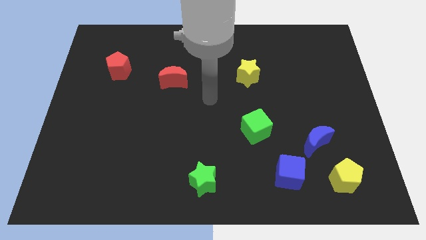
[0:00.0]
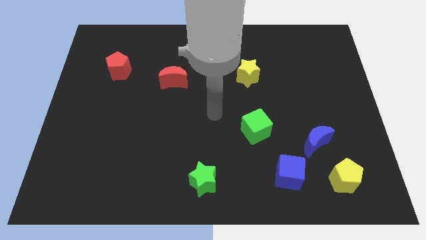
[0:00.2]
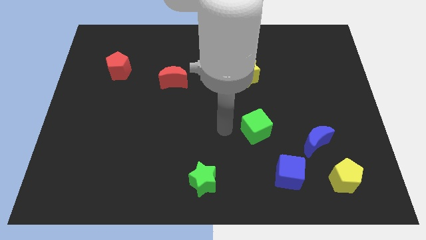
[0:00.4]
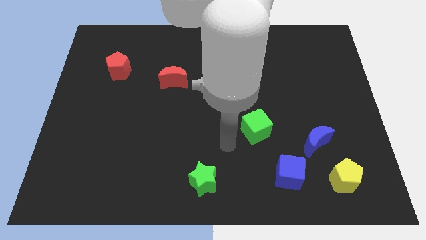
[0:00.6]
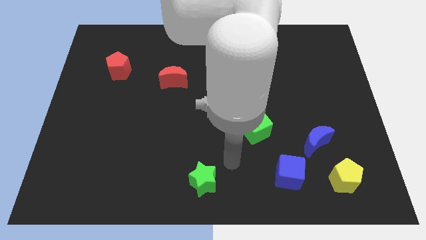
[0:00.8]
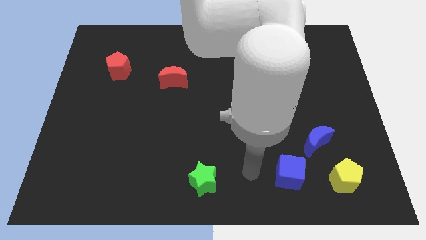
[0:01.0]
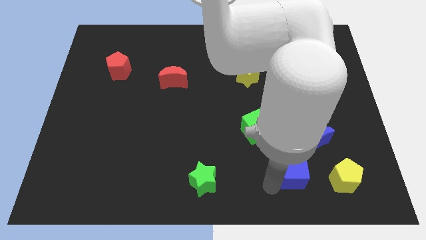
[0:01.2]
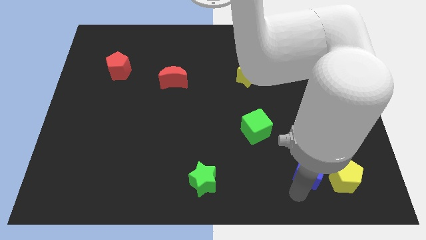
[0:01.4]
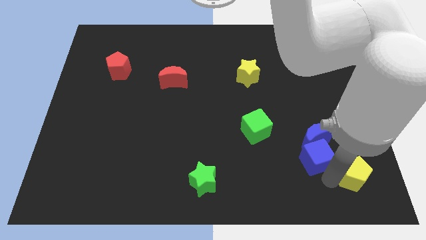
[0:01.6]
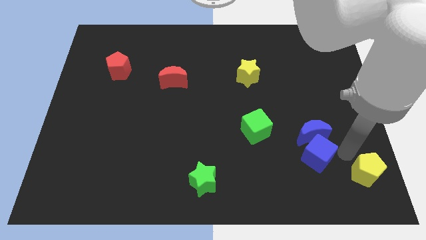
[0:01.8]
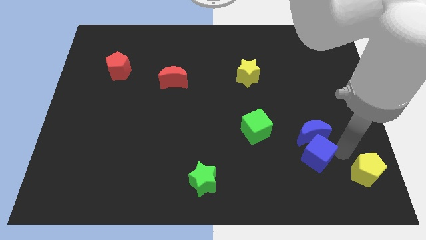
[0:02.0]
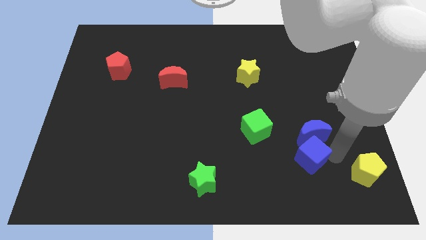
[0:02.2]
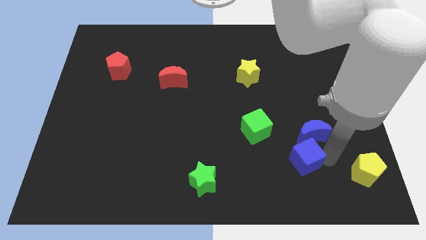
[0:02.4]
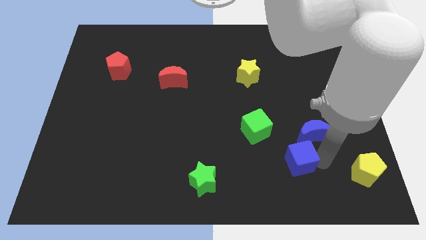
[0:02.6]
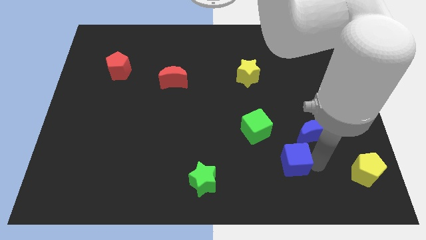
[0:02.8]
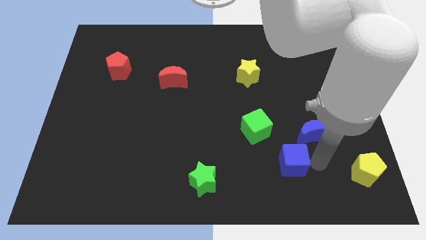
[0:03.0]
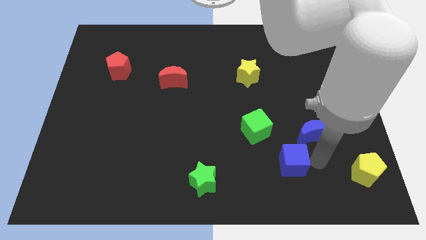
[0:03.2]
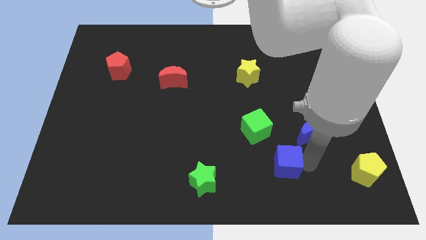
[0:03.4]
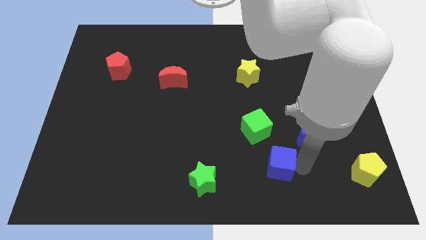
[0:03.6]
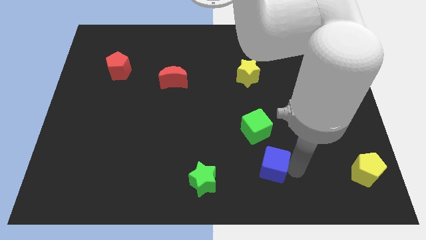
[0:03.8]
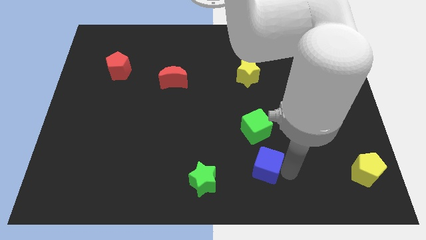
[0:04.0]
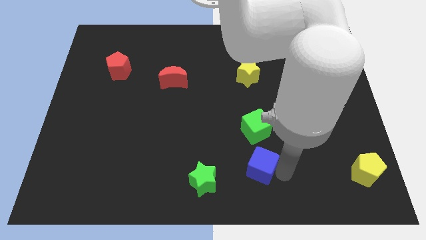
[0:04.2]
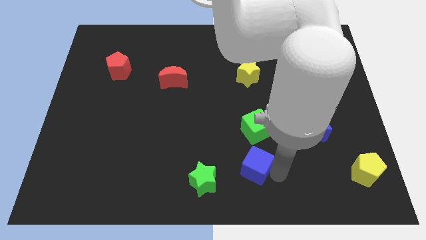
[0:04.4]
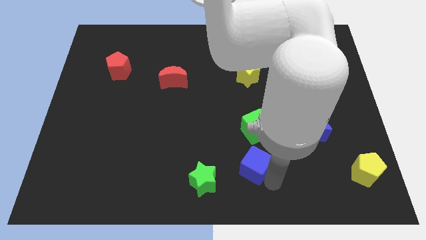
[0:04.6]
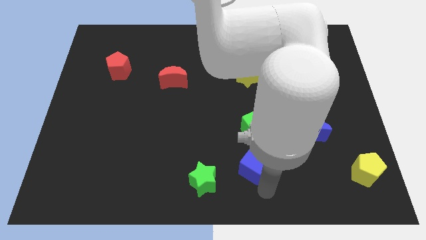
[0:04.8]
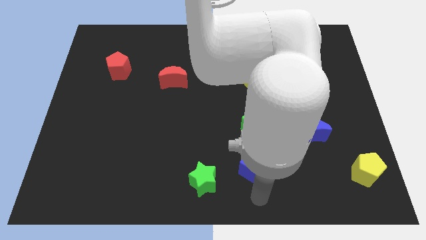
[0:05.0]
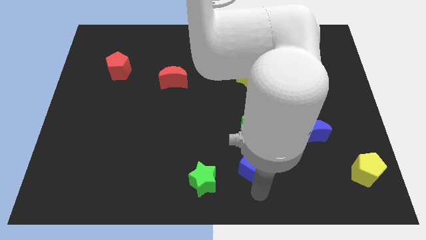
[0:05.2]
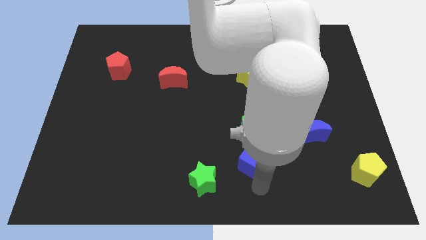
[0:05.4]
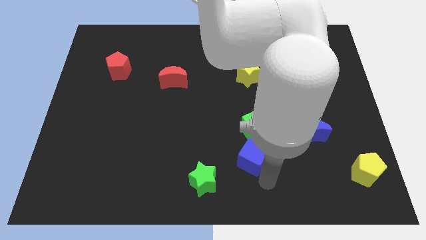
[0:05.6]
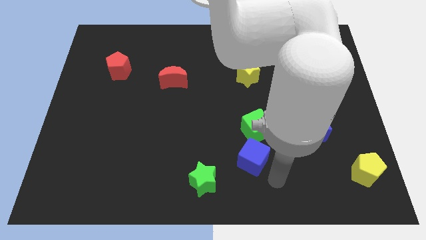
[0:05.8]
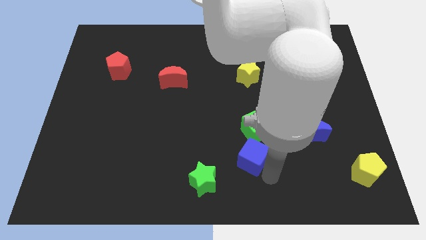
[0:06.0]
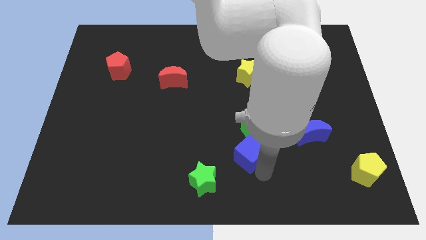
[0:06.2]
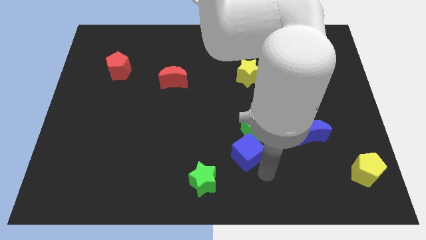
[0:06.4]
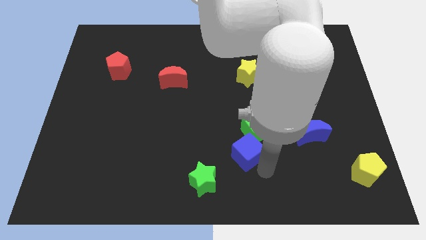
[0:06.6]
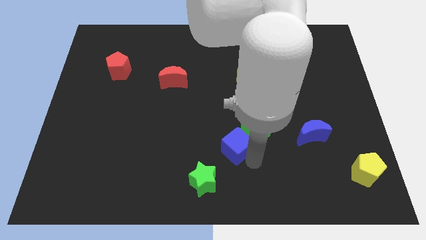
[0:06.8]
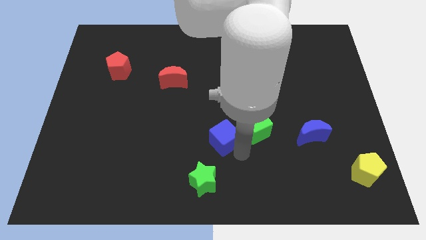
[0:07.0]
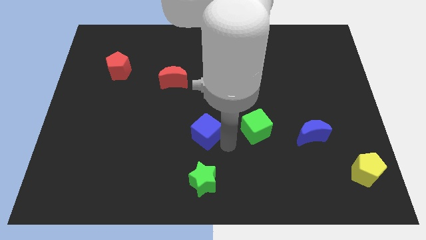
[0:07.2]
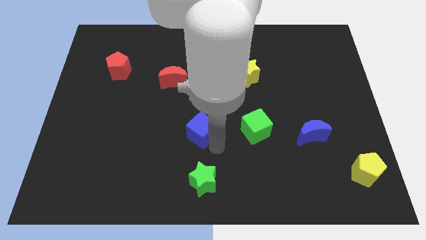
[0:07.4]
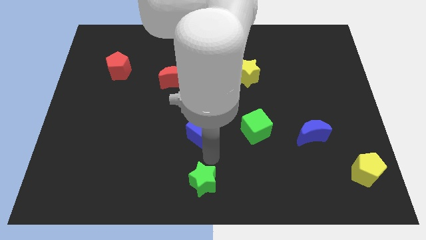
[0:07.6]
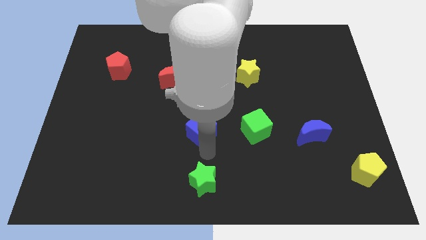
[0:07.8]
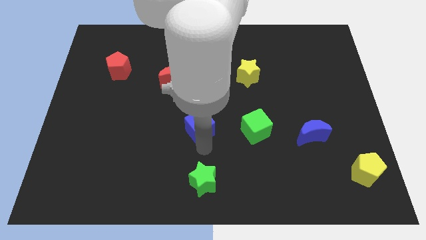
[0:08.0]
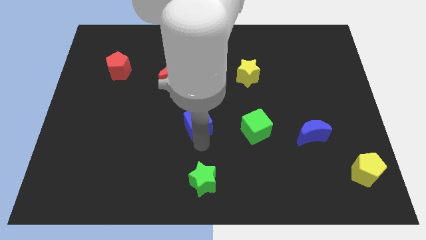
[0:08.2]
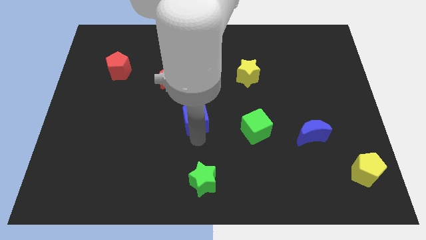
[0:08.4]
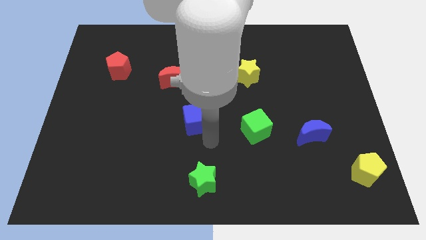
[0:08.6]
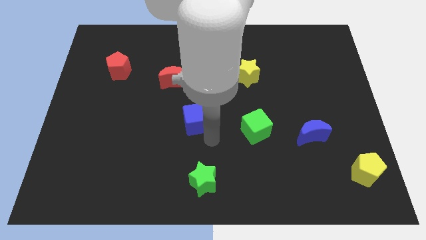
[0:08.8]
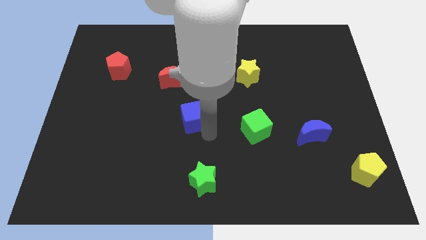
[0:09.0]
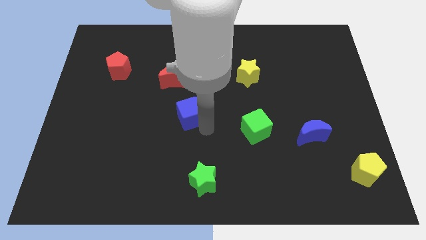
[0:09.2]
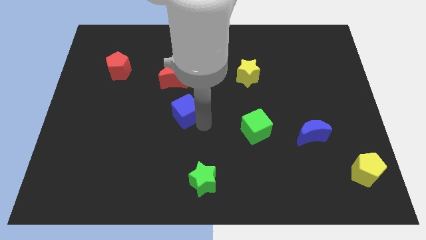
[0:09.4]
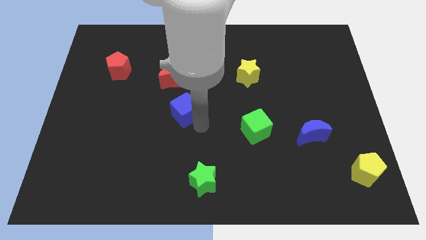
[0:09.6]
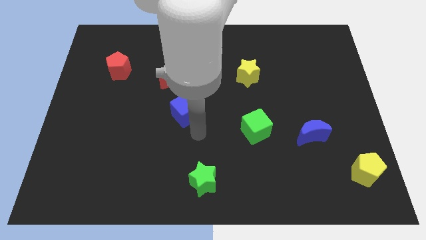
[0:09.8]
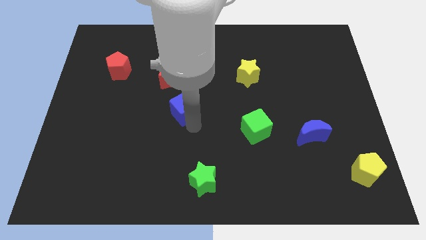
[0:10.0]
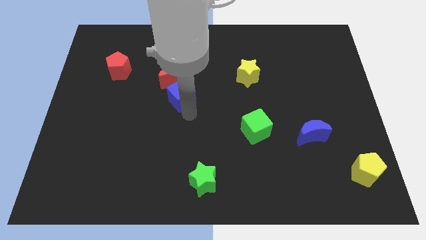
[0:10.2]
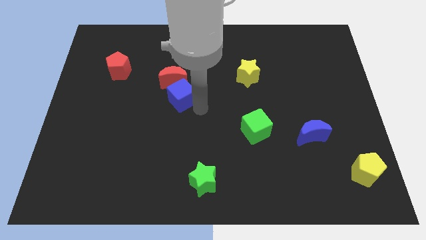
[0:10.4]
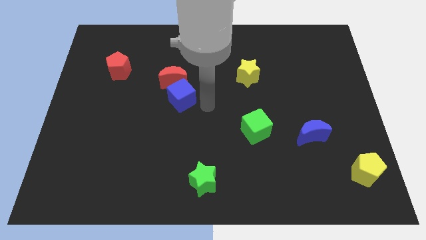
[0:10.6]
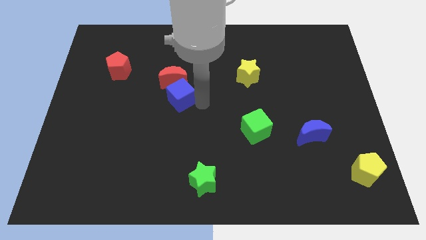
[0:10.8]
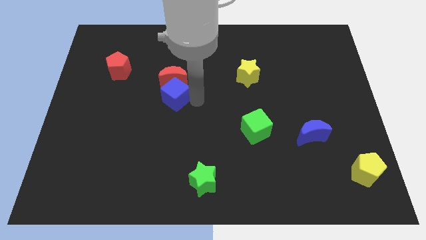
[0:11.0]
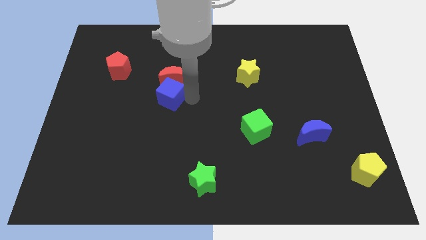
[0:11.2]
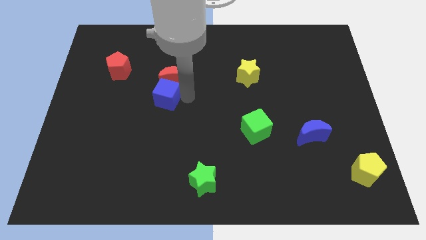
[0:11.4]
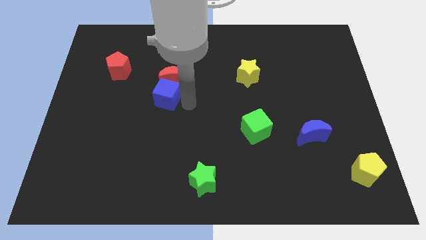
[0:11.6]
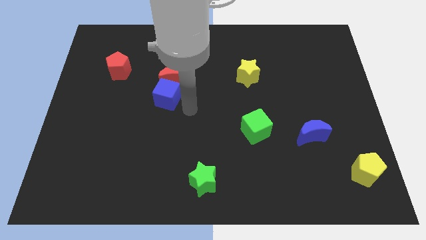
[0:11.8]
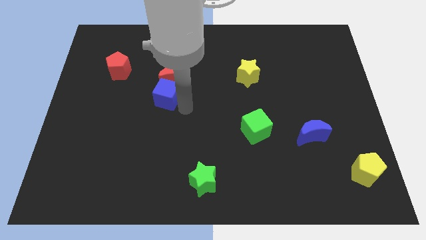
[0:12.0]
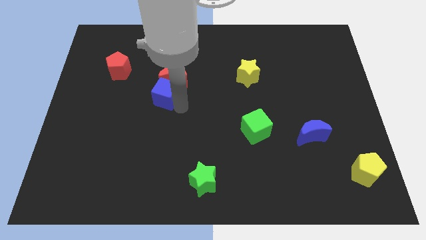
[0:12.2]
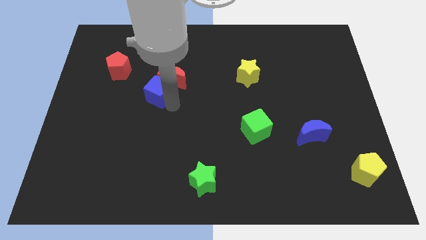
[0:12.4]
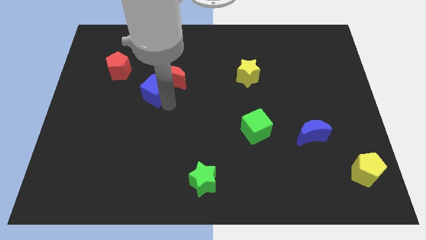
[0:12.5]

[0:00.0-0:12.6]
slide the blue cube to the left side of the red moon
